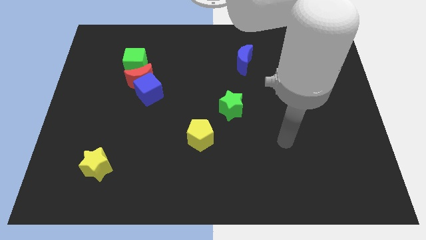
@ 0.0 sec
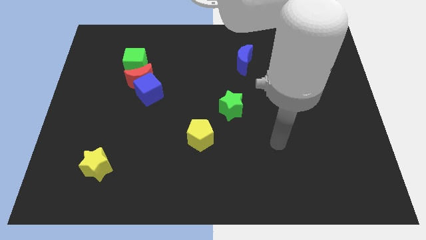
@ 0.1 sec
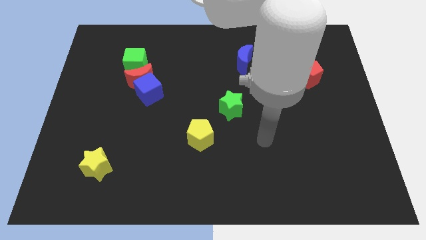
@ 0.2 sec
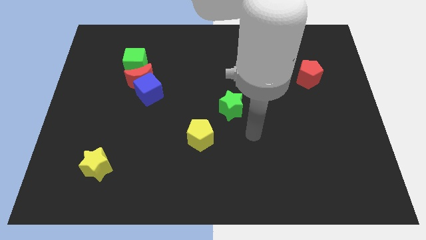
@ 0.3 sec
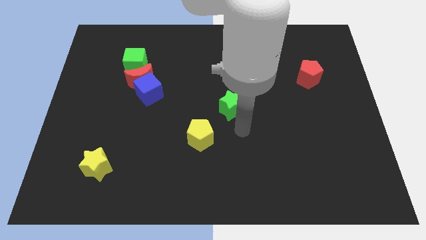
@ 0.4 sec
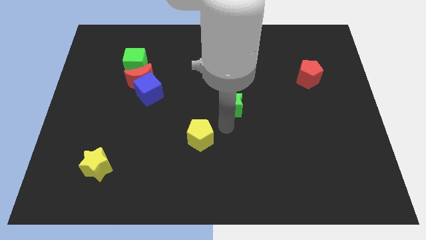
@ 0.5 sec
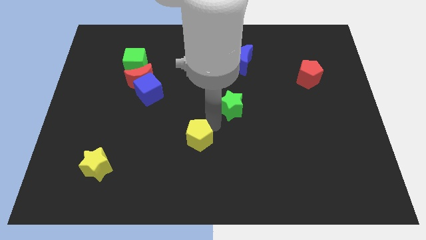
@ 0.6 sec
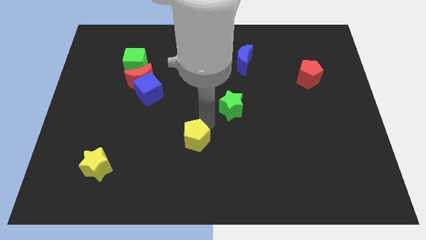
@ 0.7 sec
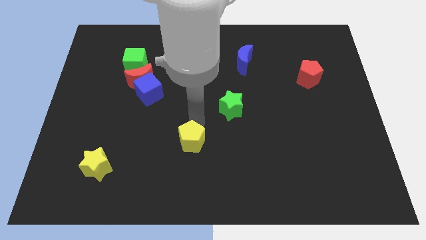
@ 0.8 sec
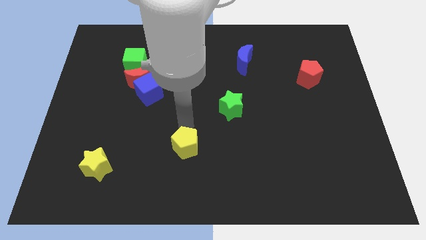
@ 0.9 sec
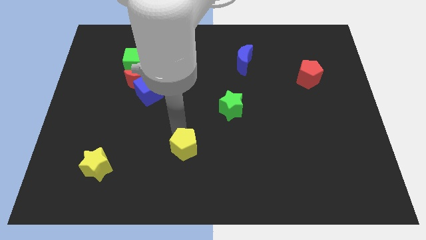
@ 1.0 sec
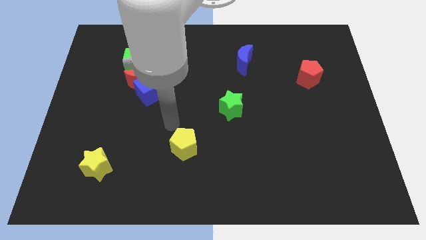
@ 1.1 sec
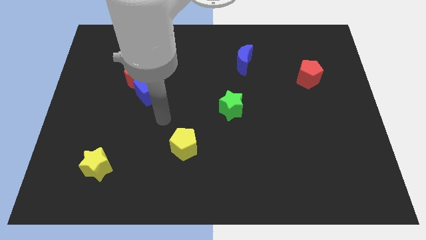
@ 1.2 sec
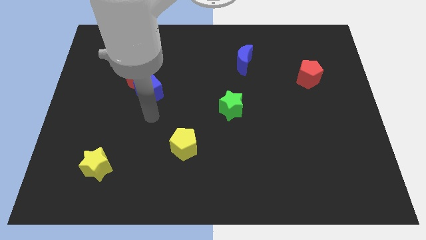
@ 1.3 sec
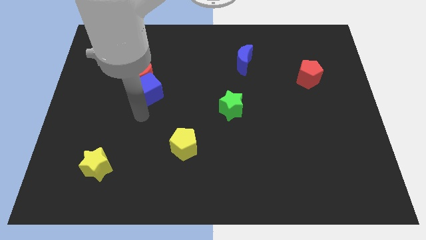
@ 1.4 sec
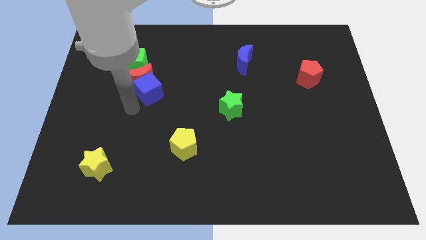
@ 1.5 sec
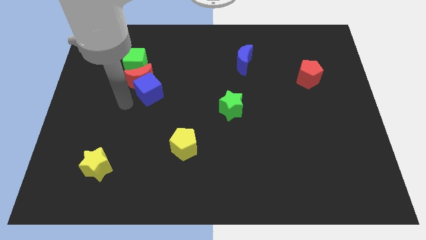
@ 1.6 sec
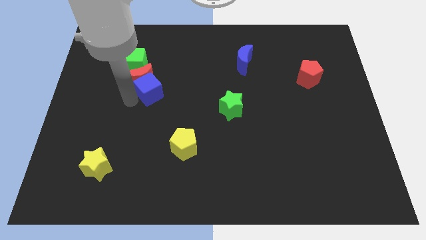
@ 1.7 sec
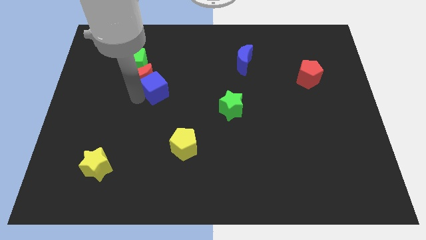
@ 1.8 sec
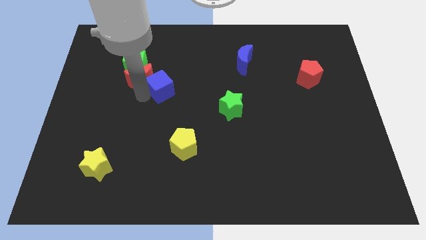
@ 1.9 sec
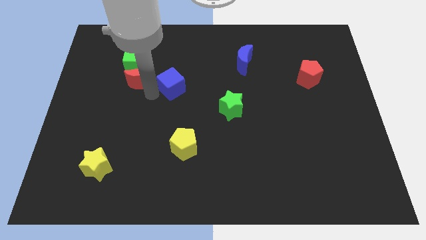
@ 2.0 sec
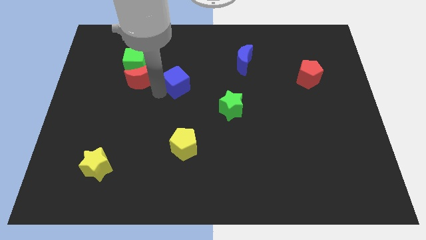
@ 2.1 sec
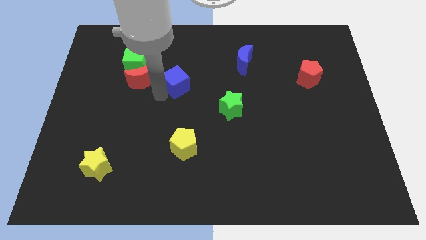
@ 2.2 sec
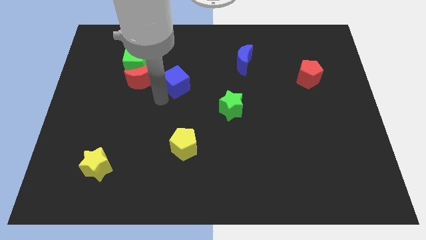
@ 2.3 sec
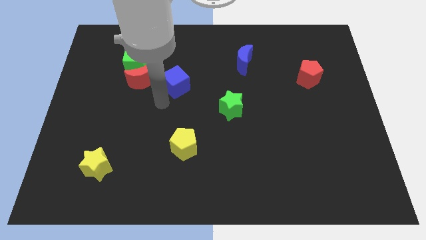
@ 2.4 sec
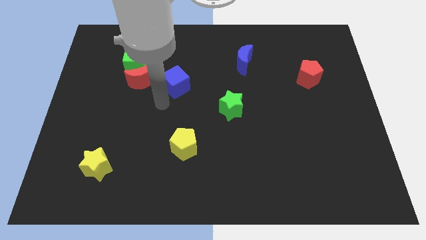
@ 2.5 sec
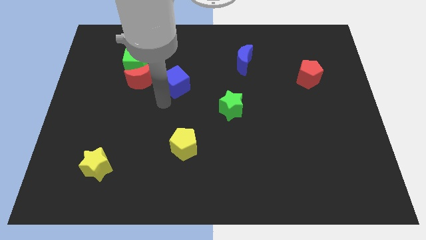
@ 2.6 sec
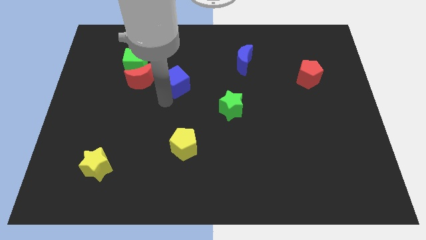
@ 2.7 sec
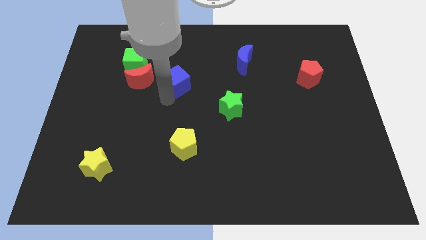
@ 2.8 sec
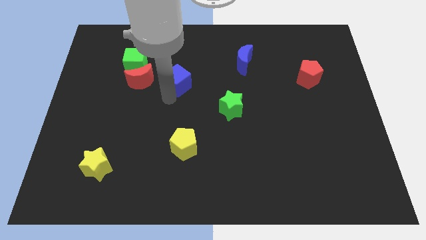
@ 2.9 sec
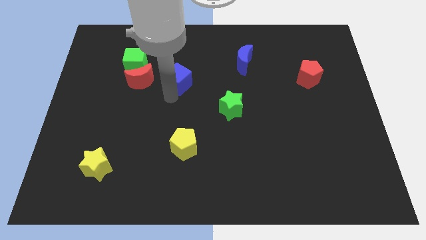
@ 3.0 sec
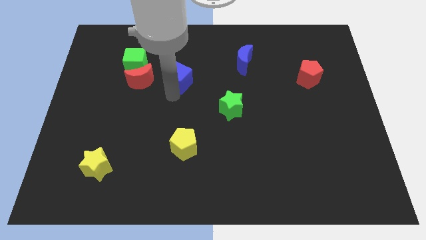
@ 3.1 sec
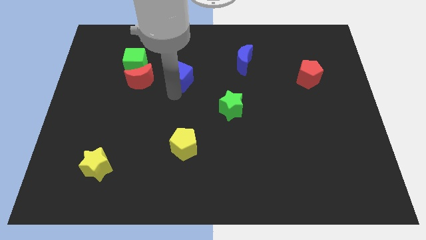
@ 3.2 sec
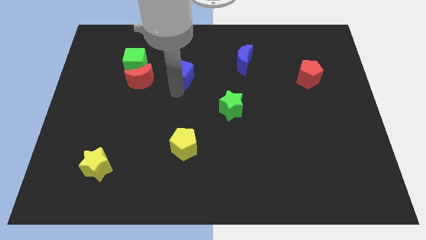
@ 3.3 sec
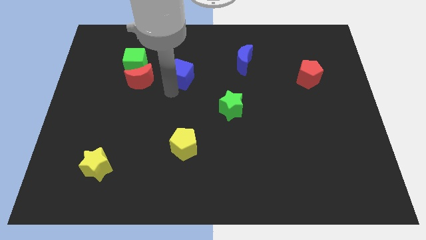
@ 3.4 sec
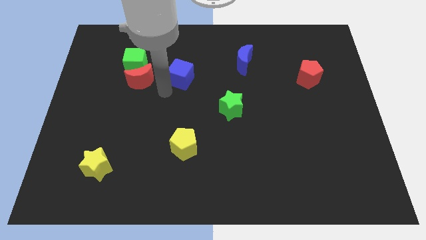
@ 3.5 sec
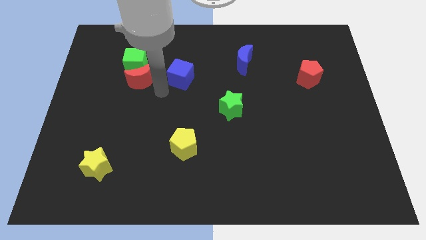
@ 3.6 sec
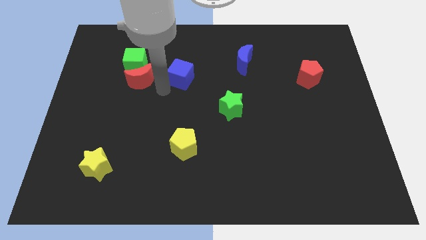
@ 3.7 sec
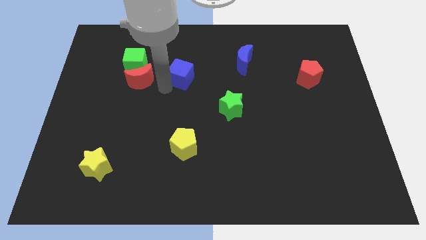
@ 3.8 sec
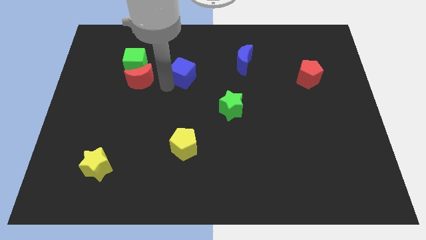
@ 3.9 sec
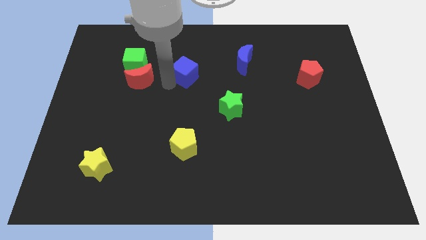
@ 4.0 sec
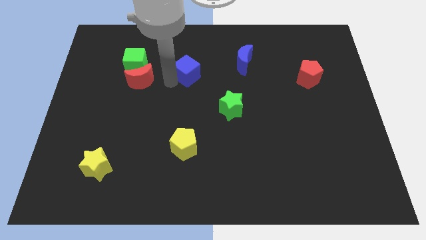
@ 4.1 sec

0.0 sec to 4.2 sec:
put the blue cube left of the blue moon

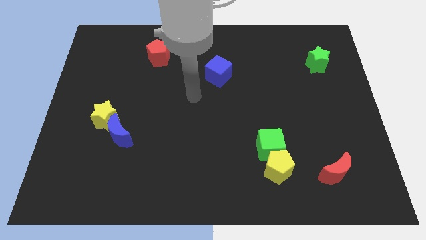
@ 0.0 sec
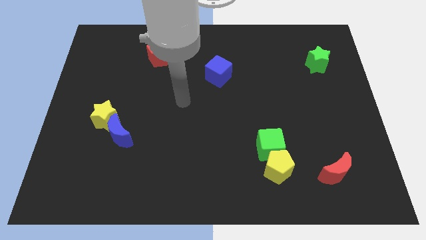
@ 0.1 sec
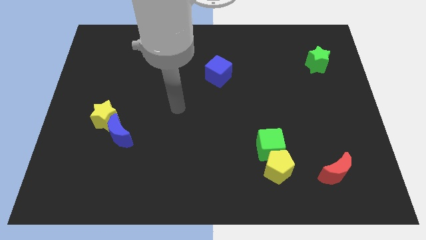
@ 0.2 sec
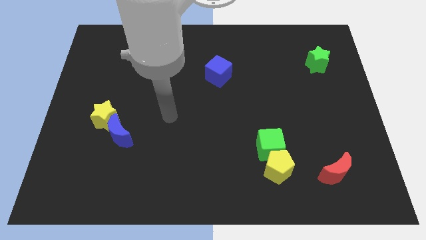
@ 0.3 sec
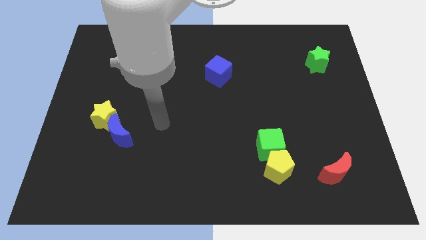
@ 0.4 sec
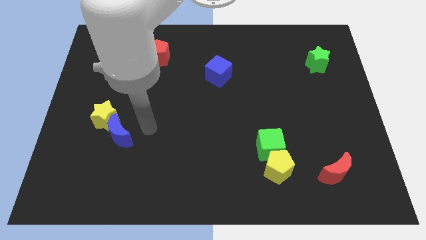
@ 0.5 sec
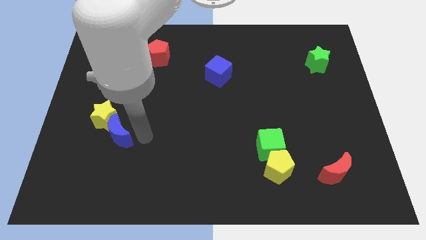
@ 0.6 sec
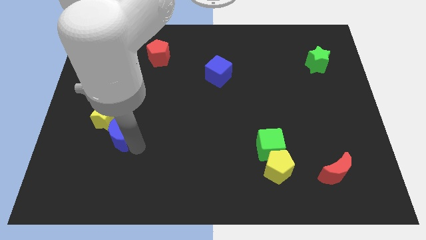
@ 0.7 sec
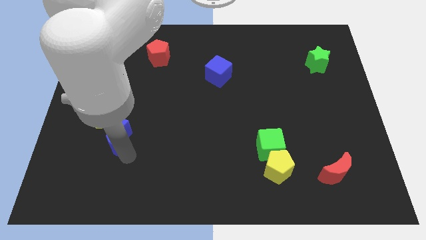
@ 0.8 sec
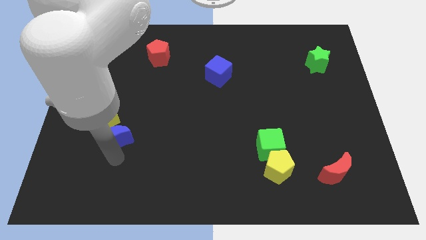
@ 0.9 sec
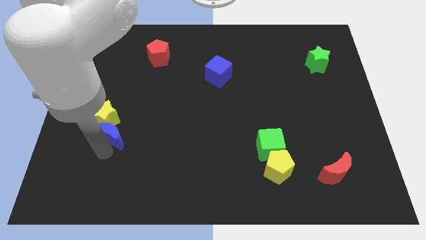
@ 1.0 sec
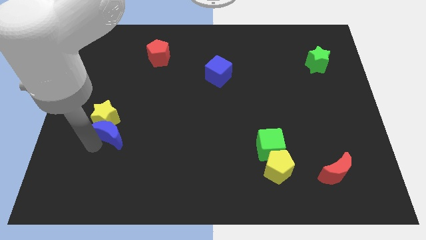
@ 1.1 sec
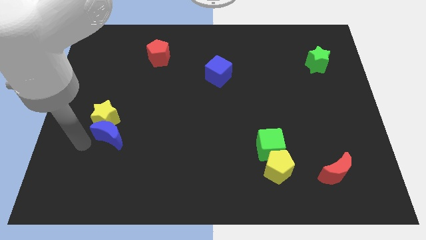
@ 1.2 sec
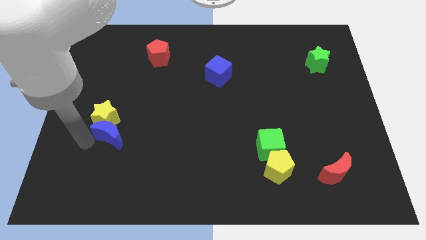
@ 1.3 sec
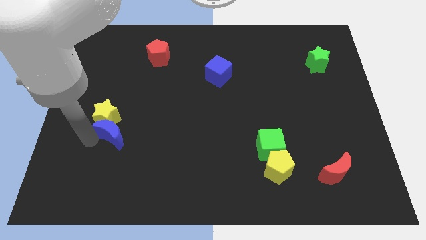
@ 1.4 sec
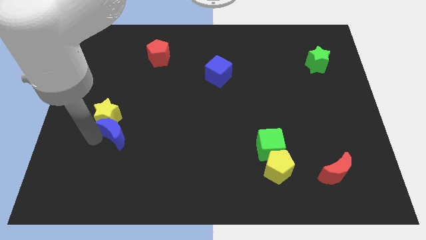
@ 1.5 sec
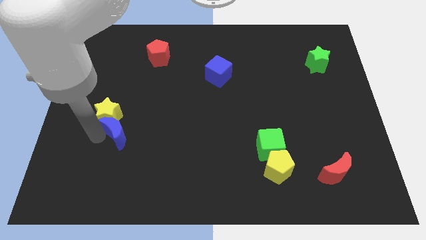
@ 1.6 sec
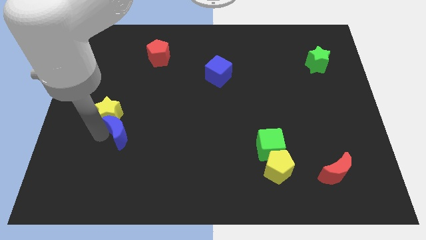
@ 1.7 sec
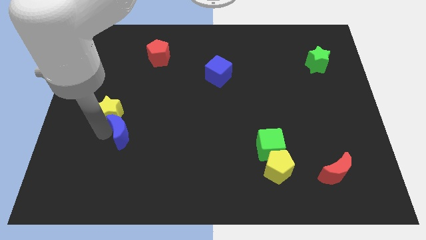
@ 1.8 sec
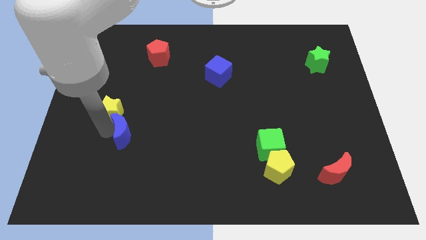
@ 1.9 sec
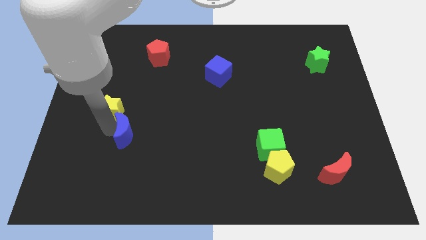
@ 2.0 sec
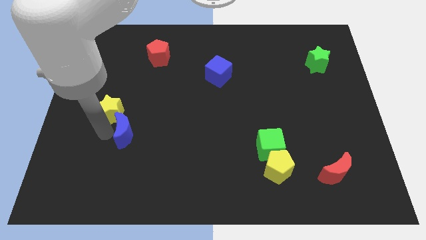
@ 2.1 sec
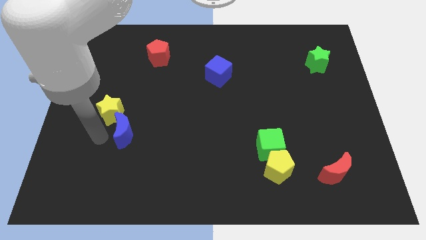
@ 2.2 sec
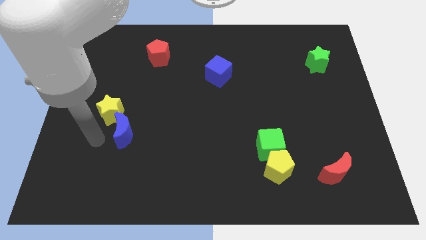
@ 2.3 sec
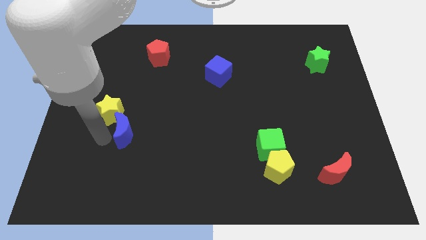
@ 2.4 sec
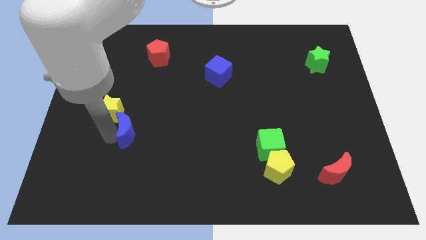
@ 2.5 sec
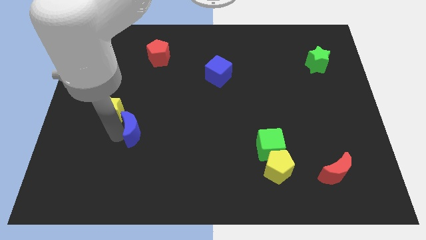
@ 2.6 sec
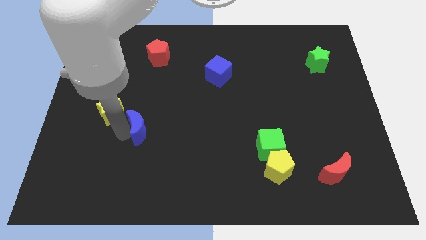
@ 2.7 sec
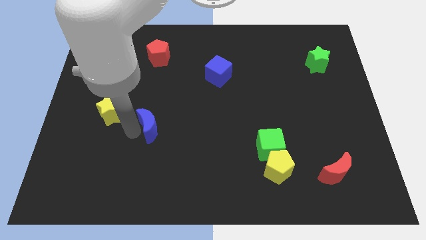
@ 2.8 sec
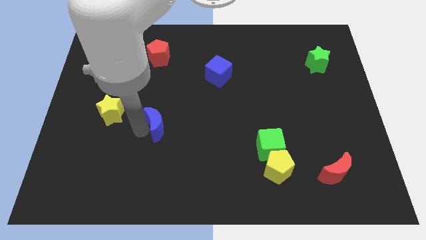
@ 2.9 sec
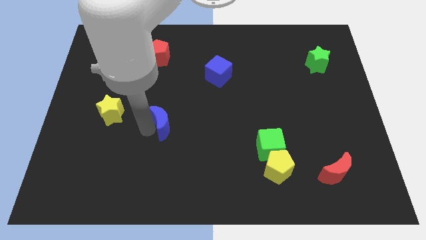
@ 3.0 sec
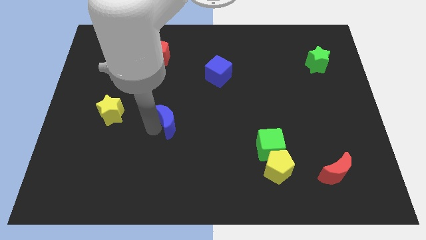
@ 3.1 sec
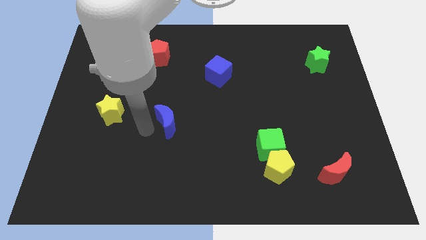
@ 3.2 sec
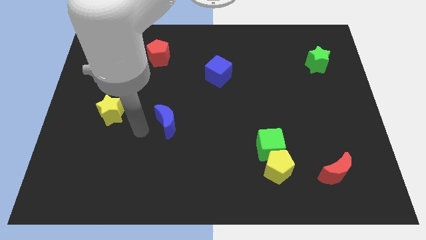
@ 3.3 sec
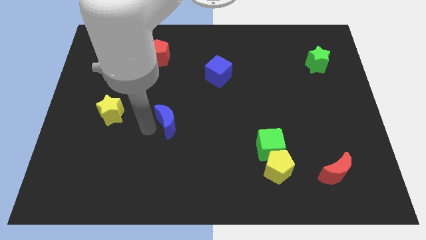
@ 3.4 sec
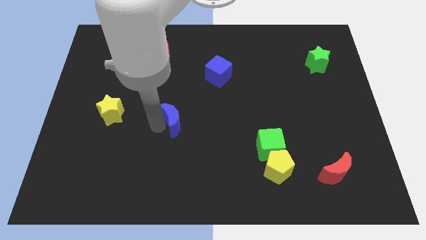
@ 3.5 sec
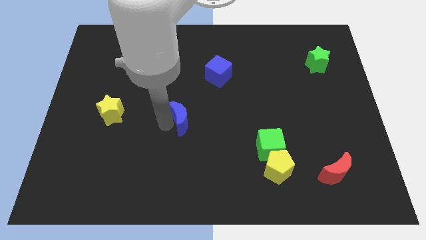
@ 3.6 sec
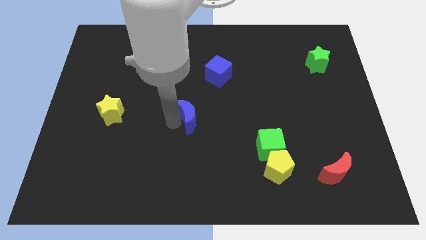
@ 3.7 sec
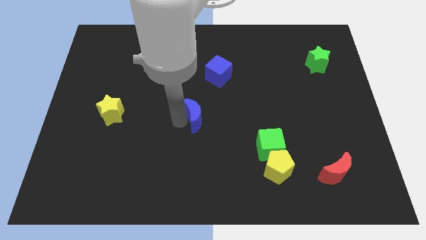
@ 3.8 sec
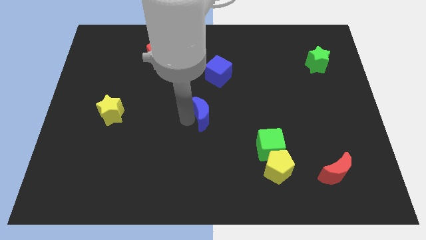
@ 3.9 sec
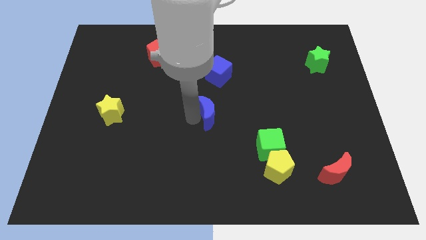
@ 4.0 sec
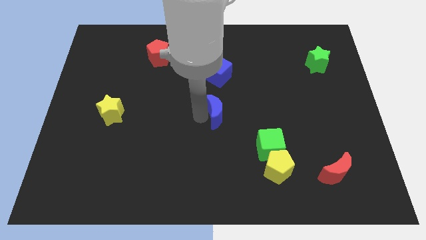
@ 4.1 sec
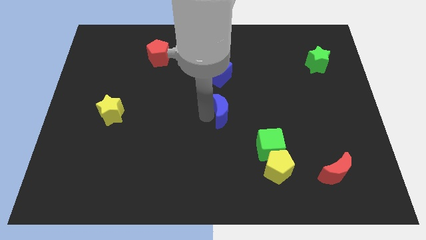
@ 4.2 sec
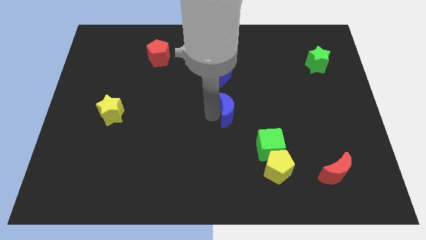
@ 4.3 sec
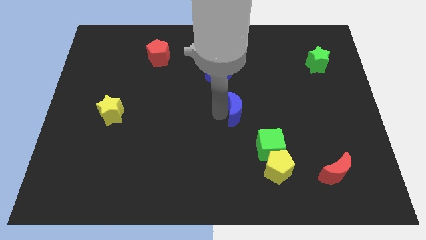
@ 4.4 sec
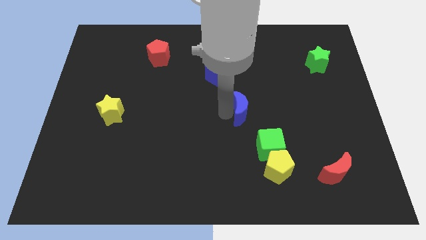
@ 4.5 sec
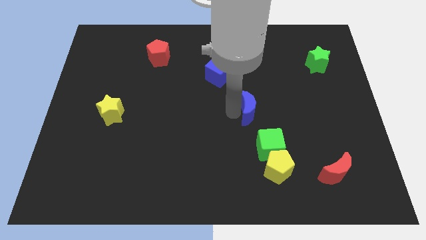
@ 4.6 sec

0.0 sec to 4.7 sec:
push the blue moon to the top of the green cube
